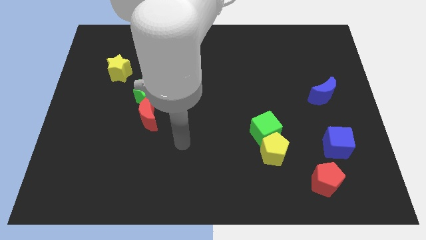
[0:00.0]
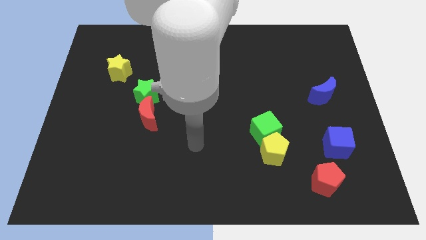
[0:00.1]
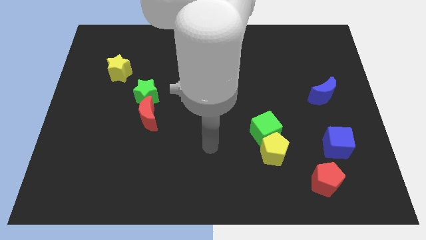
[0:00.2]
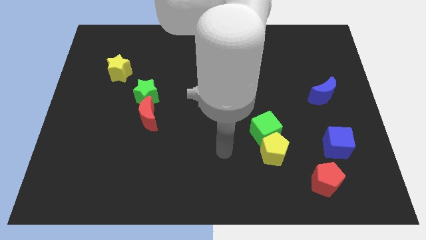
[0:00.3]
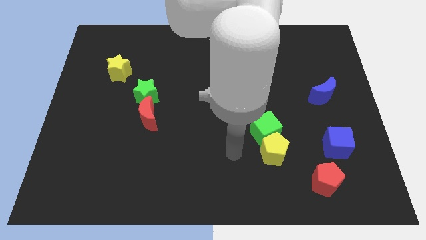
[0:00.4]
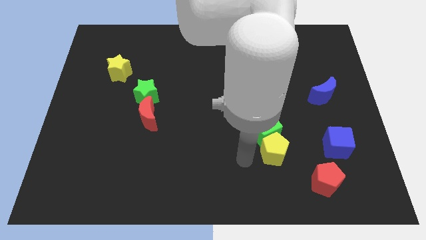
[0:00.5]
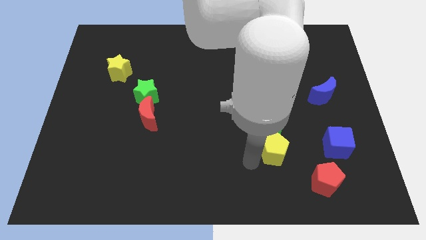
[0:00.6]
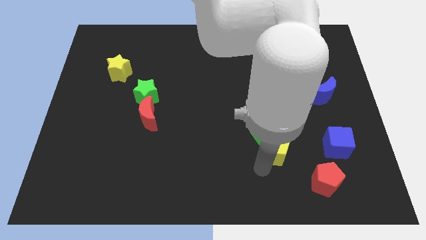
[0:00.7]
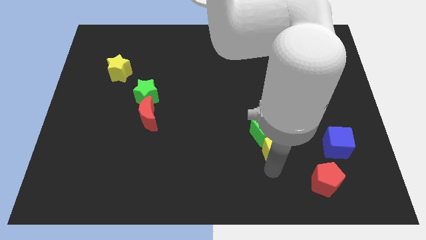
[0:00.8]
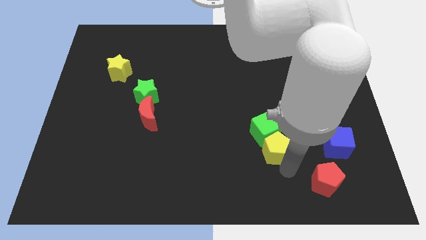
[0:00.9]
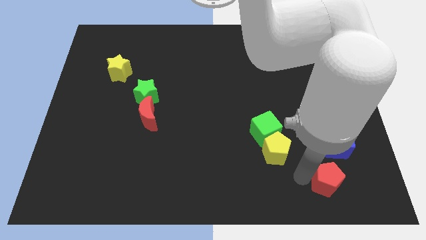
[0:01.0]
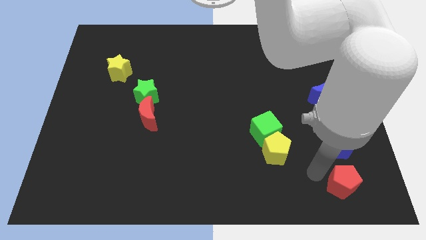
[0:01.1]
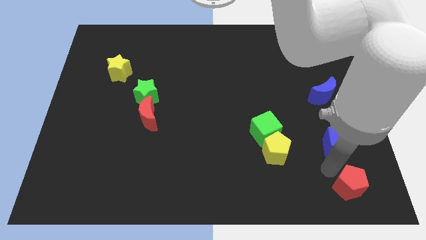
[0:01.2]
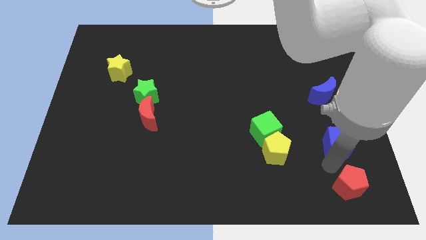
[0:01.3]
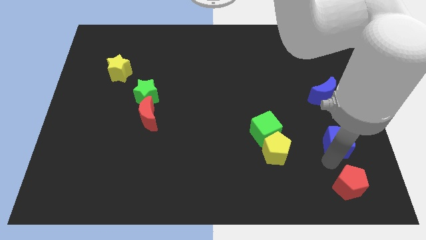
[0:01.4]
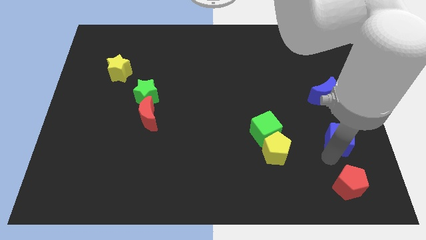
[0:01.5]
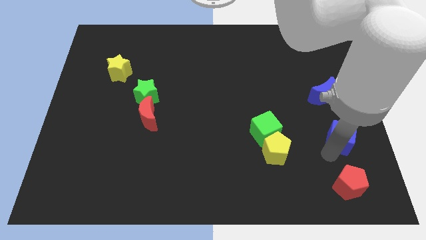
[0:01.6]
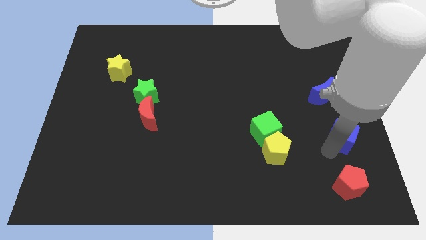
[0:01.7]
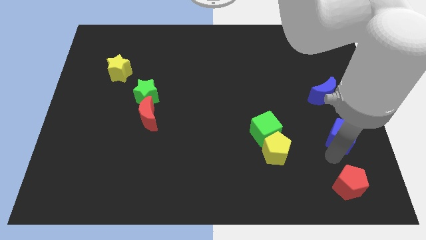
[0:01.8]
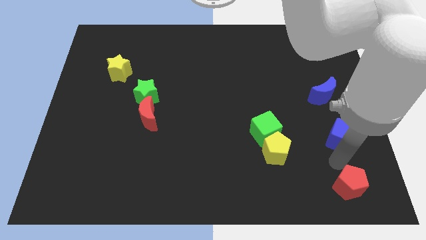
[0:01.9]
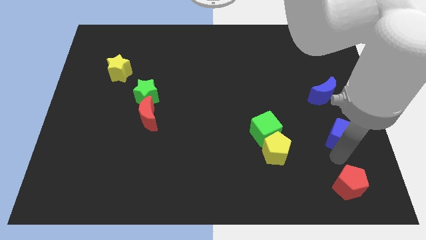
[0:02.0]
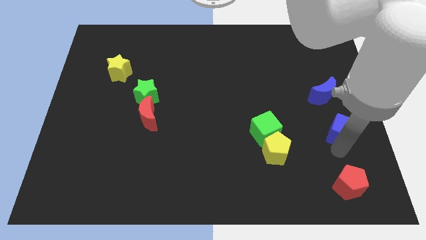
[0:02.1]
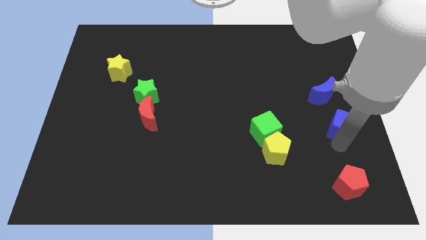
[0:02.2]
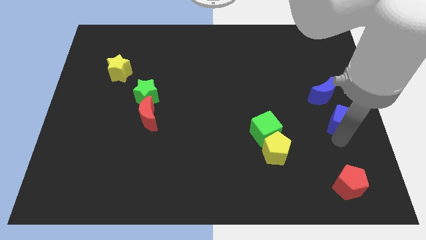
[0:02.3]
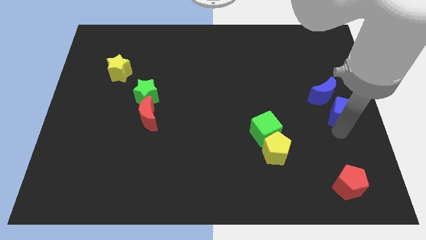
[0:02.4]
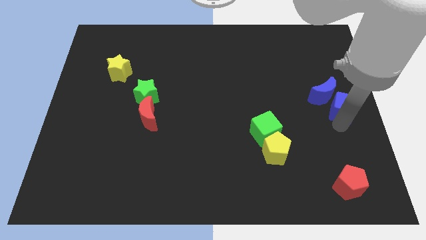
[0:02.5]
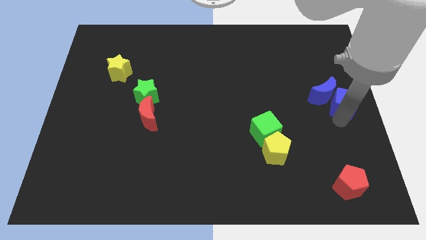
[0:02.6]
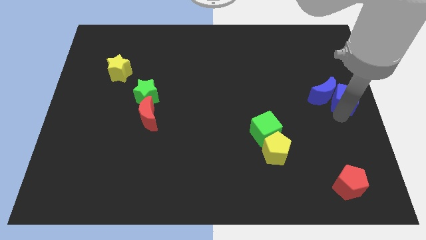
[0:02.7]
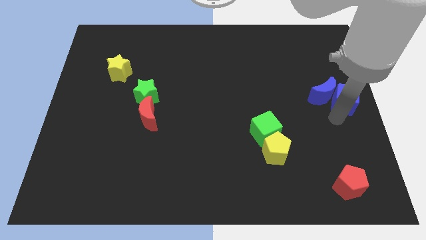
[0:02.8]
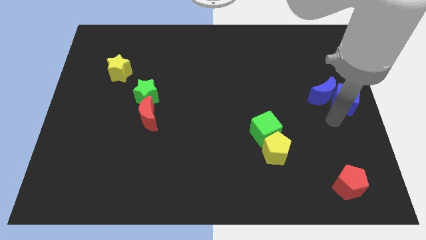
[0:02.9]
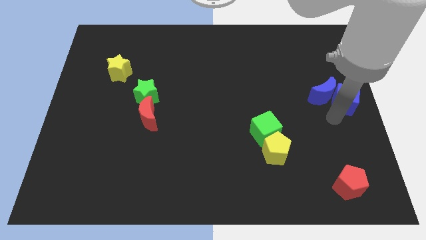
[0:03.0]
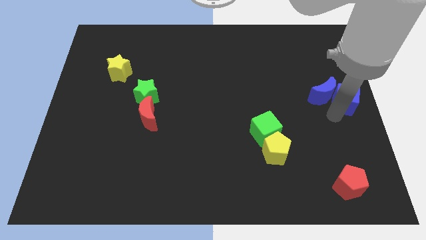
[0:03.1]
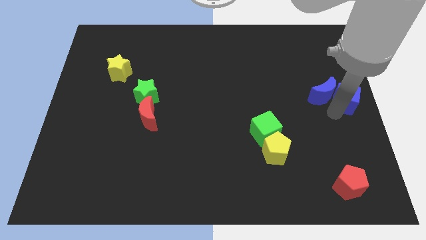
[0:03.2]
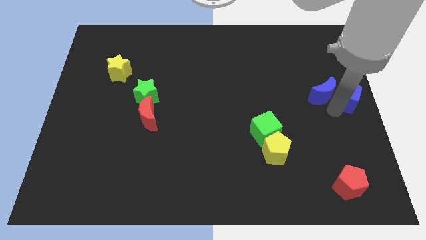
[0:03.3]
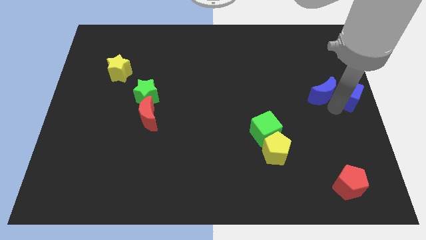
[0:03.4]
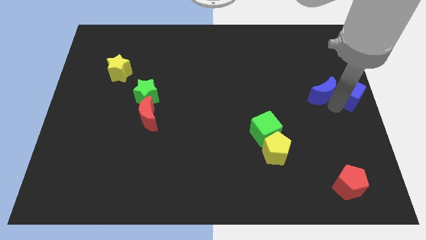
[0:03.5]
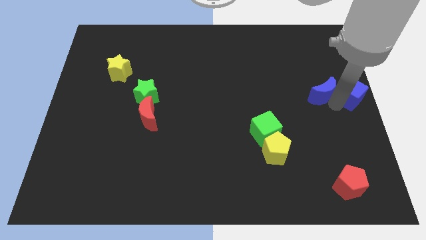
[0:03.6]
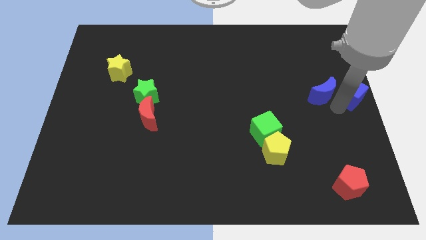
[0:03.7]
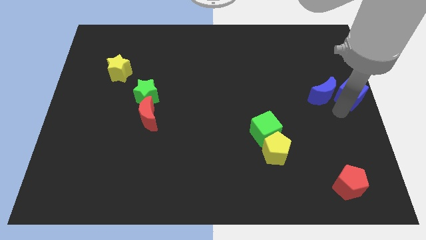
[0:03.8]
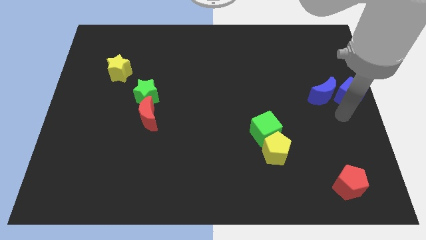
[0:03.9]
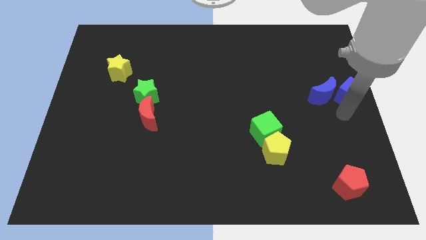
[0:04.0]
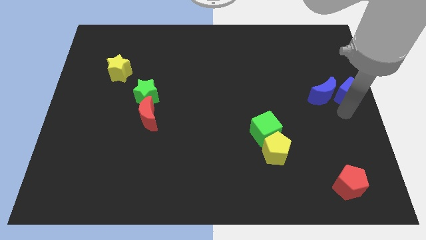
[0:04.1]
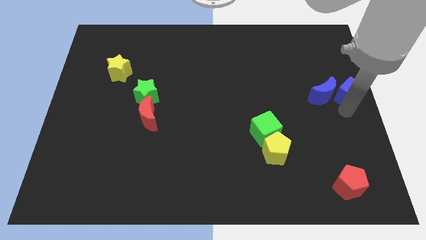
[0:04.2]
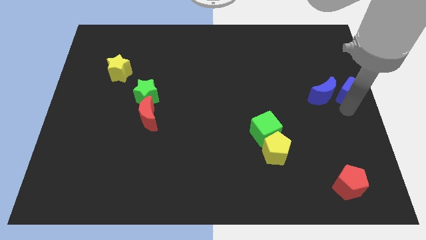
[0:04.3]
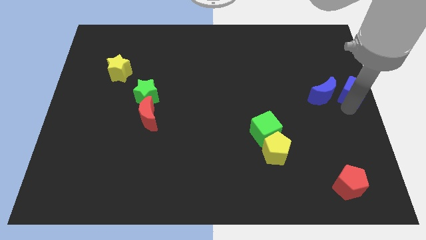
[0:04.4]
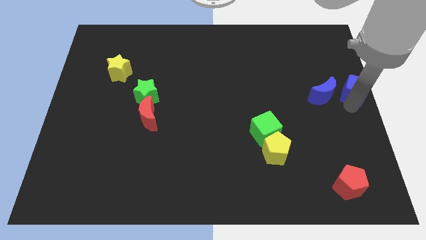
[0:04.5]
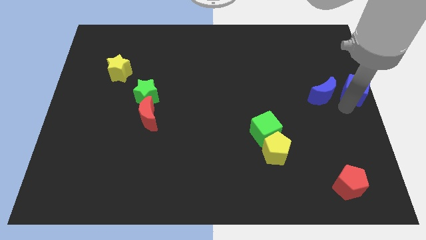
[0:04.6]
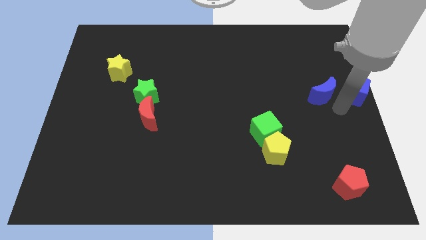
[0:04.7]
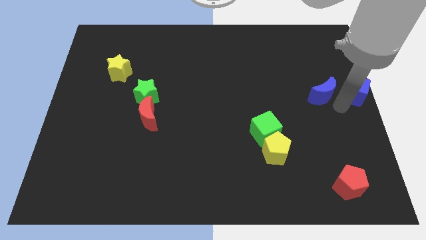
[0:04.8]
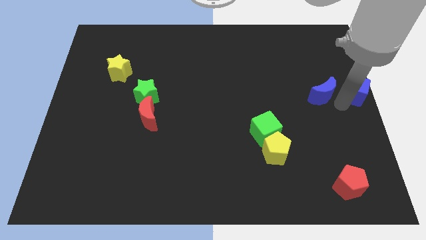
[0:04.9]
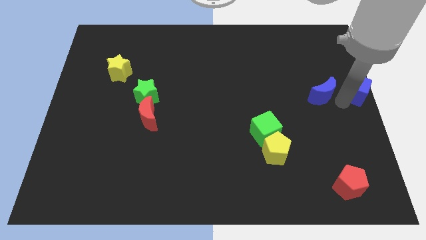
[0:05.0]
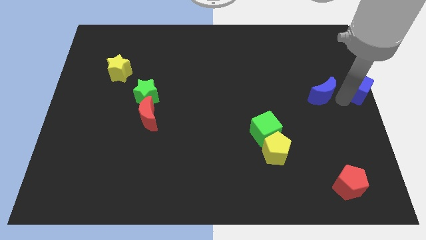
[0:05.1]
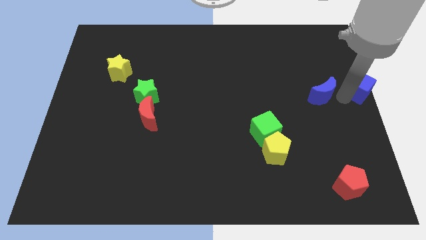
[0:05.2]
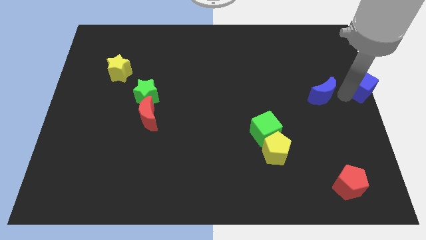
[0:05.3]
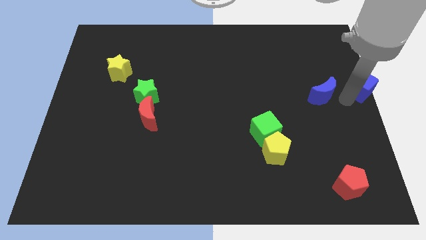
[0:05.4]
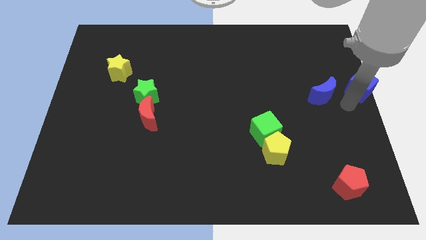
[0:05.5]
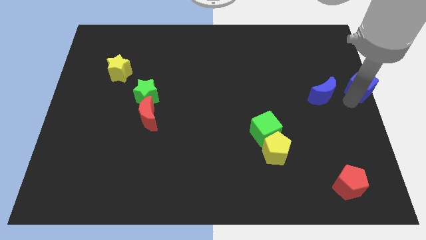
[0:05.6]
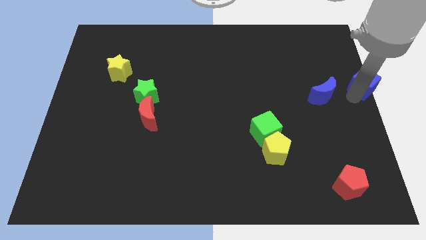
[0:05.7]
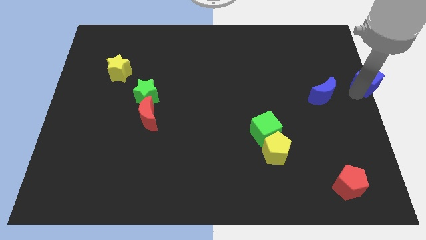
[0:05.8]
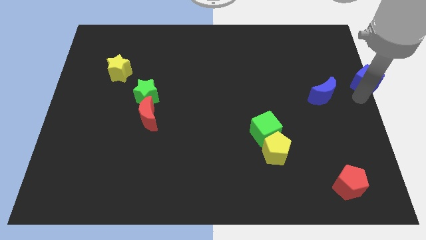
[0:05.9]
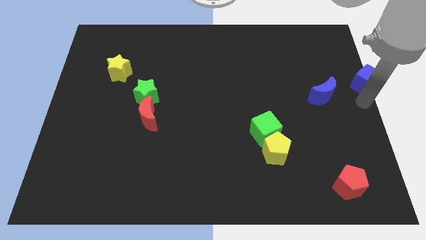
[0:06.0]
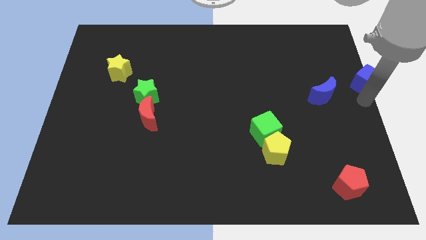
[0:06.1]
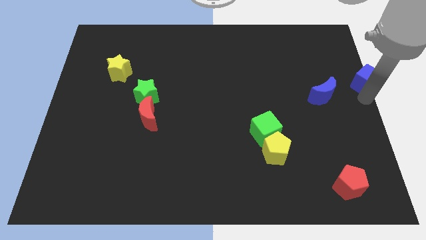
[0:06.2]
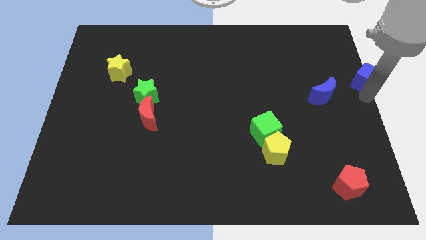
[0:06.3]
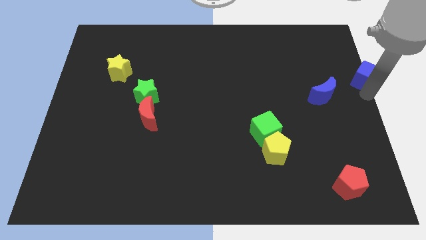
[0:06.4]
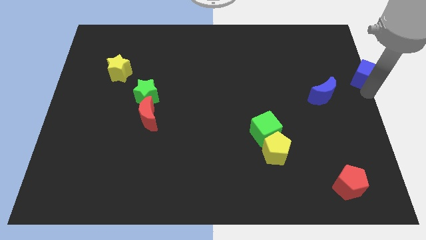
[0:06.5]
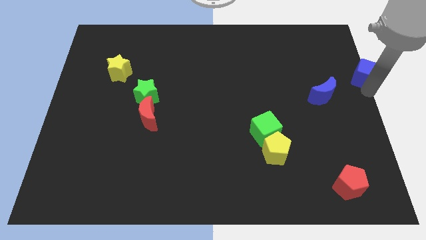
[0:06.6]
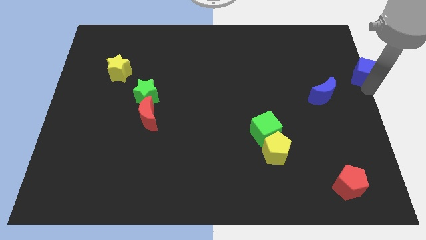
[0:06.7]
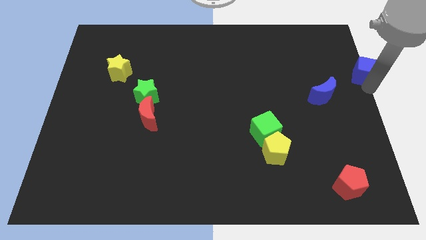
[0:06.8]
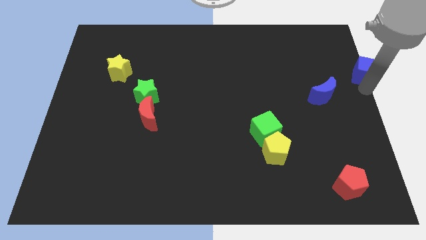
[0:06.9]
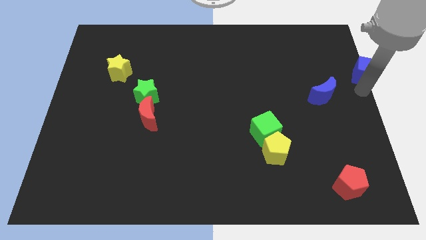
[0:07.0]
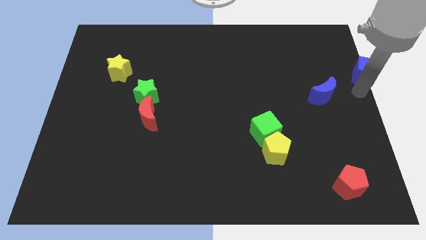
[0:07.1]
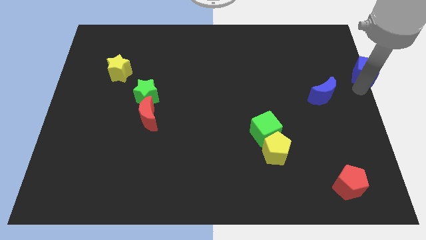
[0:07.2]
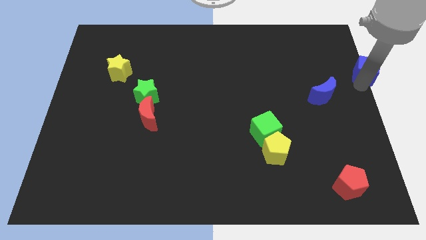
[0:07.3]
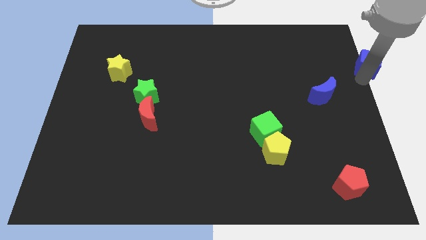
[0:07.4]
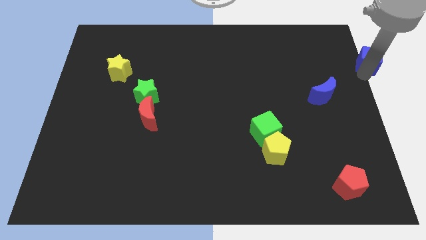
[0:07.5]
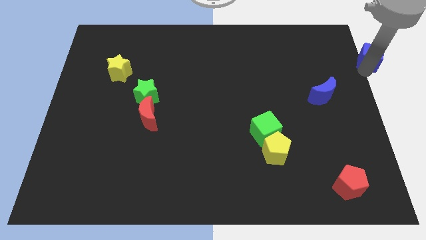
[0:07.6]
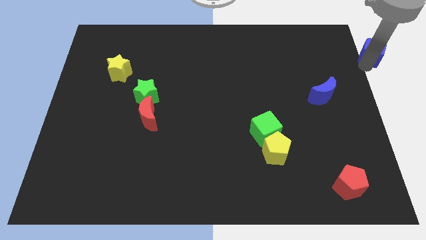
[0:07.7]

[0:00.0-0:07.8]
slide the blue cube to the top right of the board

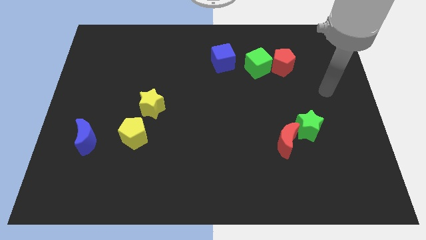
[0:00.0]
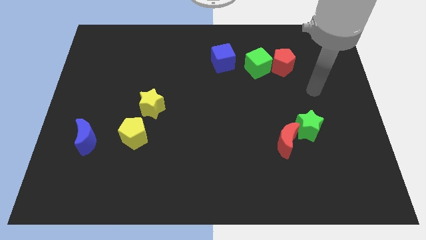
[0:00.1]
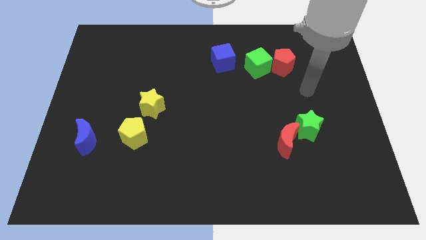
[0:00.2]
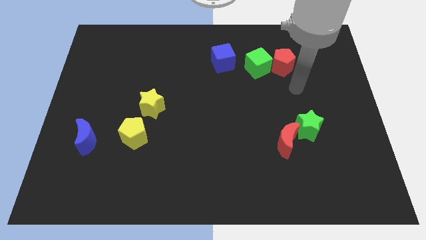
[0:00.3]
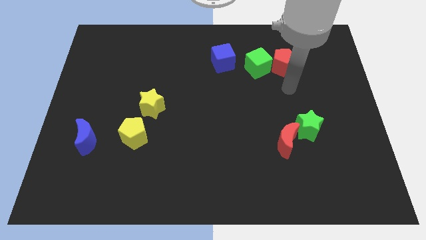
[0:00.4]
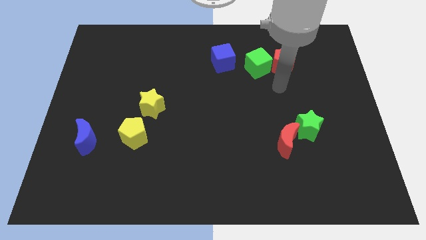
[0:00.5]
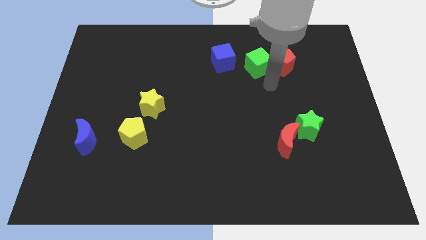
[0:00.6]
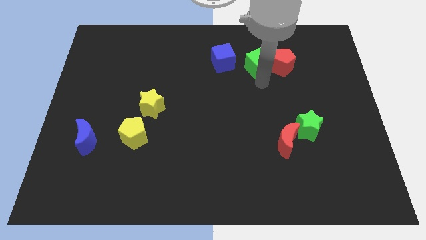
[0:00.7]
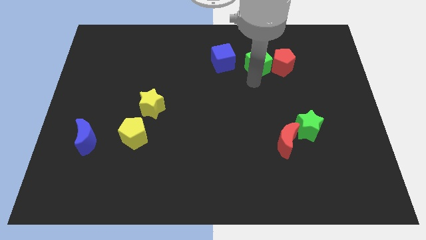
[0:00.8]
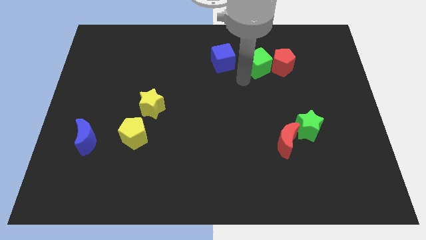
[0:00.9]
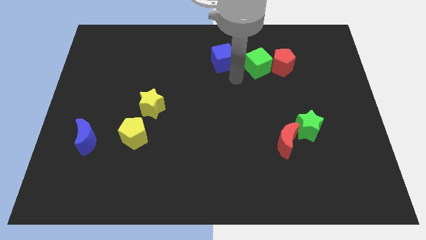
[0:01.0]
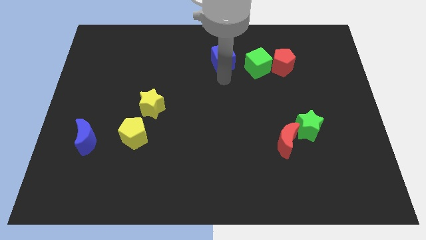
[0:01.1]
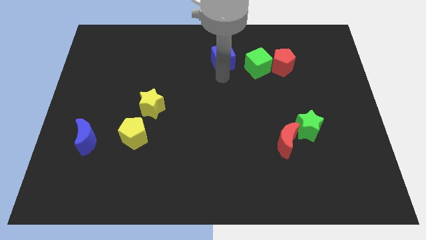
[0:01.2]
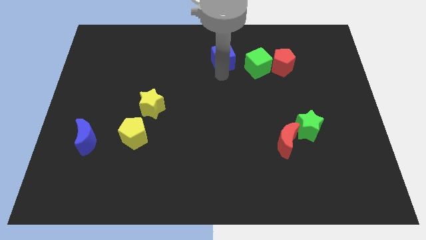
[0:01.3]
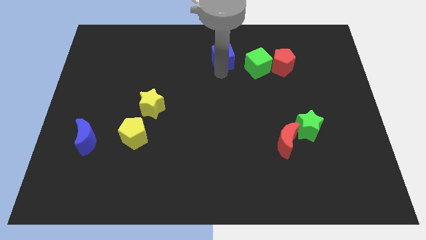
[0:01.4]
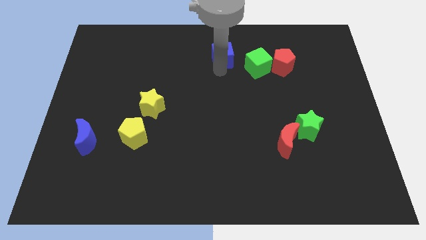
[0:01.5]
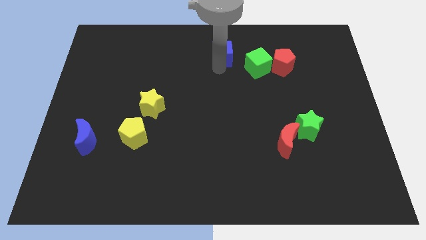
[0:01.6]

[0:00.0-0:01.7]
push the blue cube to the top
